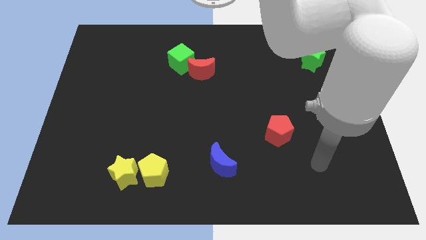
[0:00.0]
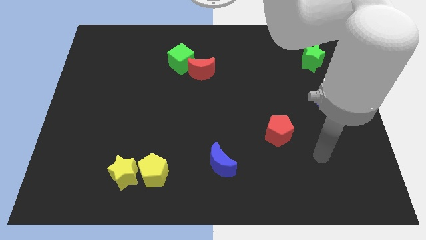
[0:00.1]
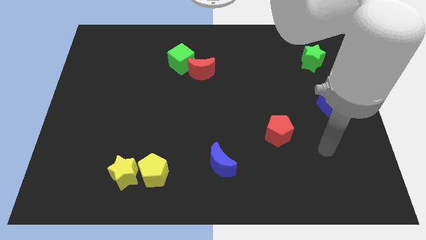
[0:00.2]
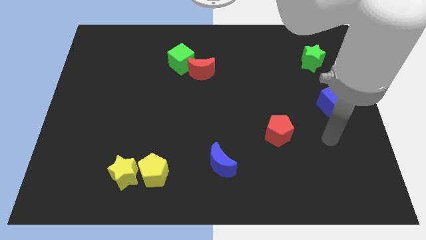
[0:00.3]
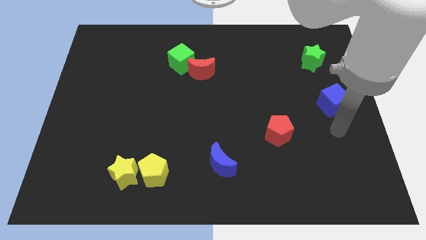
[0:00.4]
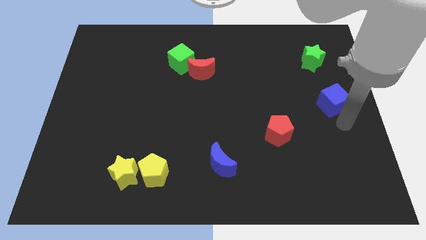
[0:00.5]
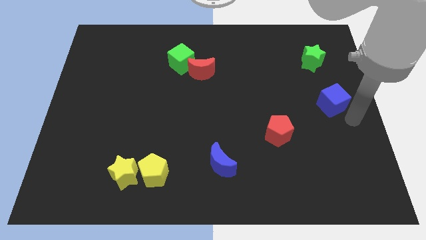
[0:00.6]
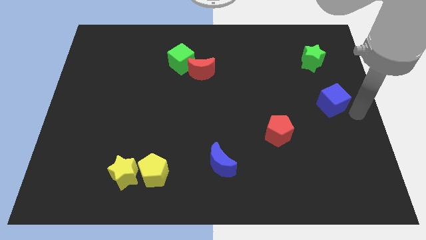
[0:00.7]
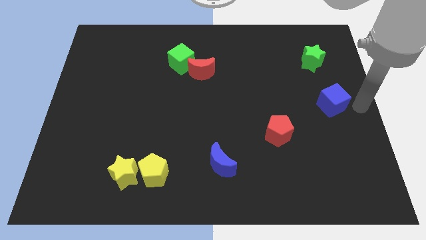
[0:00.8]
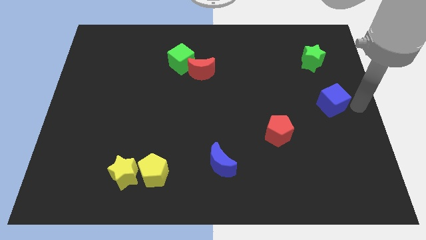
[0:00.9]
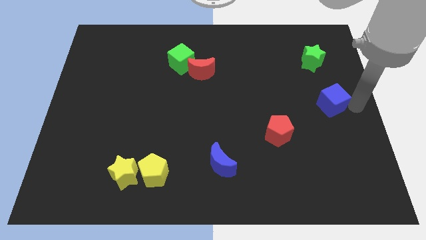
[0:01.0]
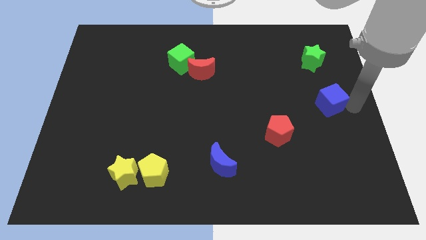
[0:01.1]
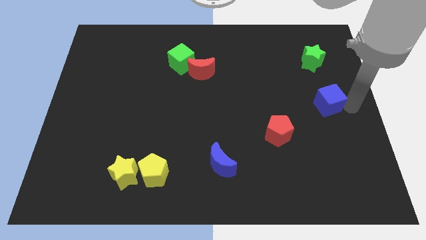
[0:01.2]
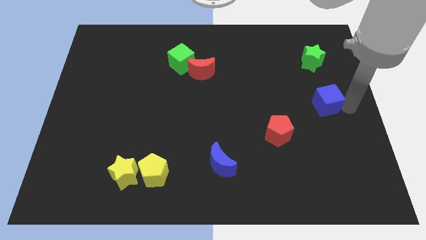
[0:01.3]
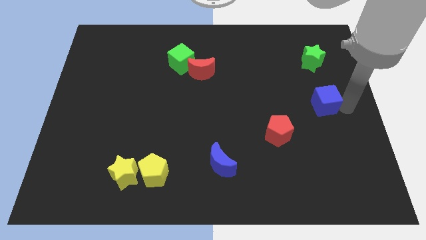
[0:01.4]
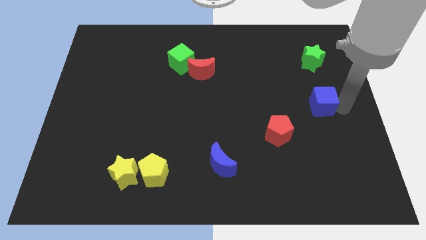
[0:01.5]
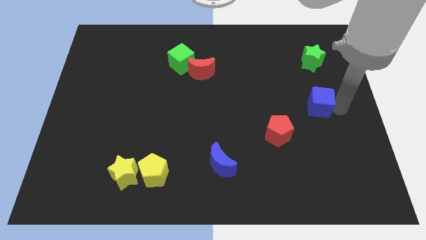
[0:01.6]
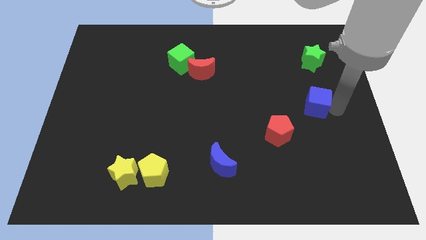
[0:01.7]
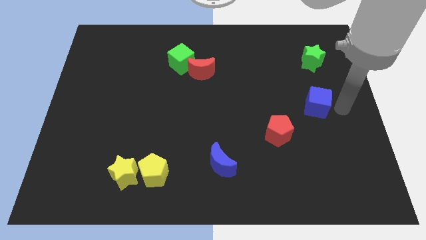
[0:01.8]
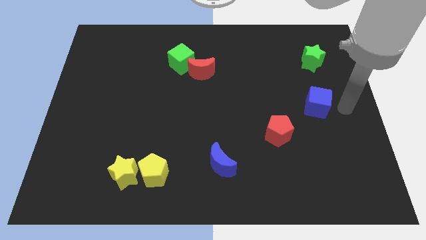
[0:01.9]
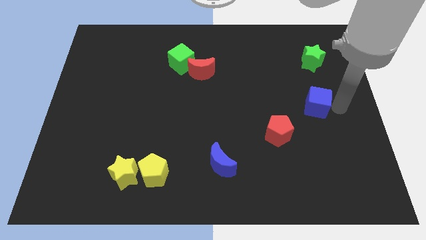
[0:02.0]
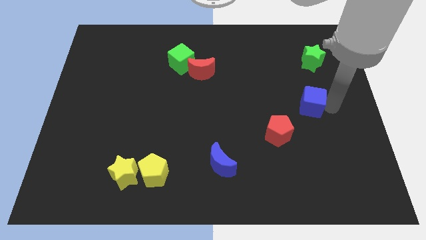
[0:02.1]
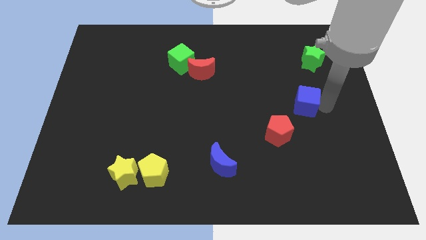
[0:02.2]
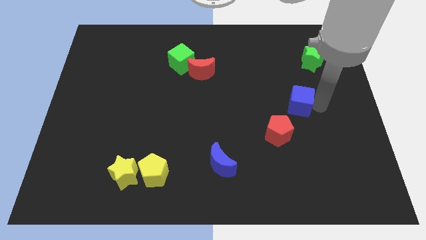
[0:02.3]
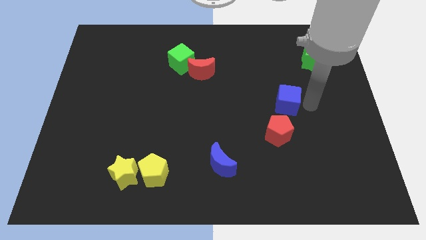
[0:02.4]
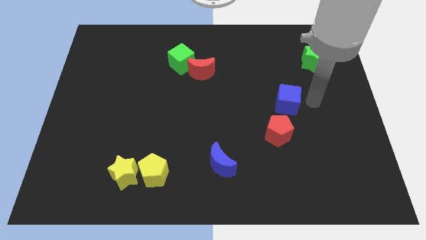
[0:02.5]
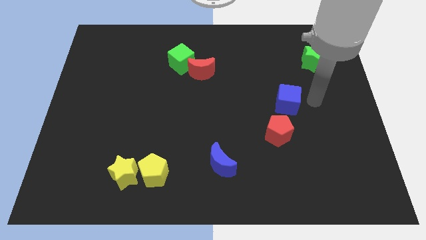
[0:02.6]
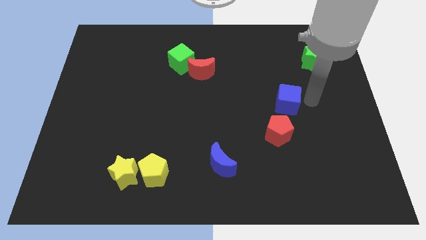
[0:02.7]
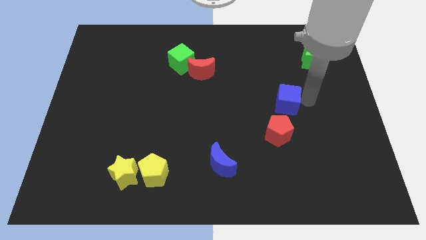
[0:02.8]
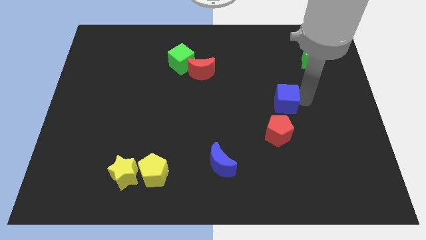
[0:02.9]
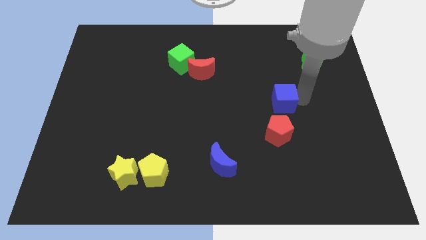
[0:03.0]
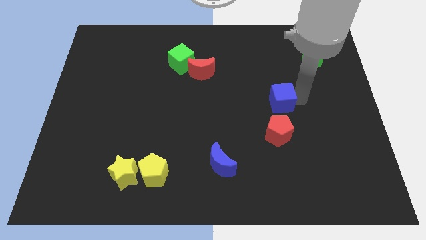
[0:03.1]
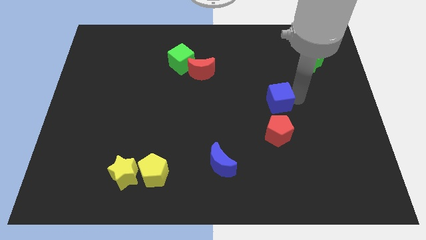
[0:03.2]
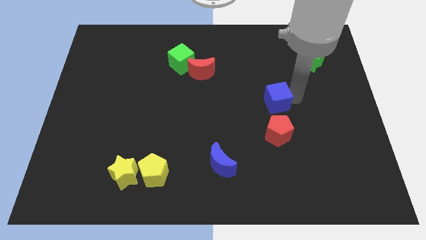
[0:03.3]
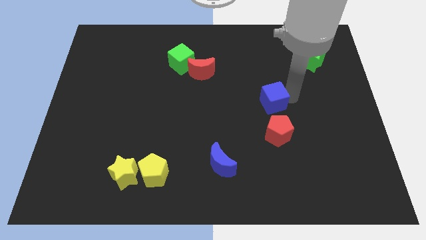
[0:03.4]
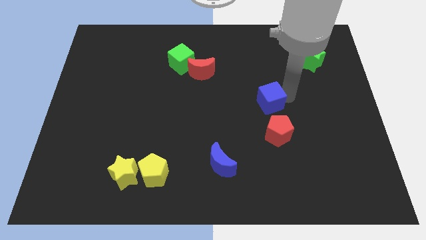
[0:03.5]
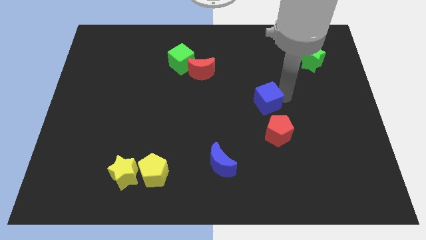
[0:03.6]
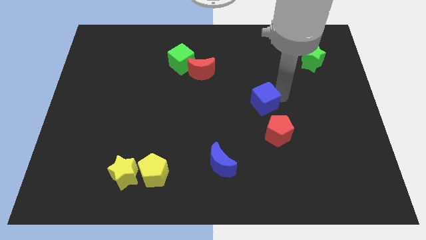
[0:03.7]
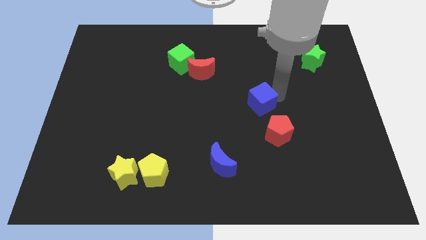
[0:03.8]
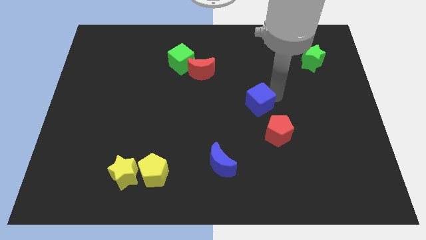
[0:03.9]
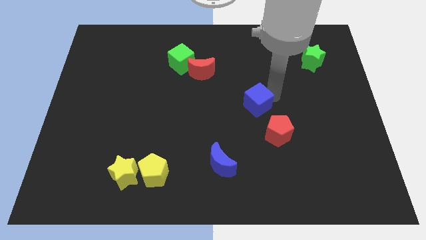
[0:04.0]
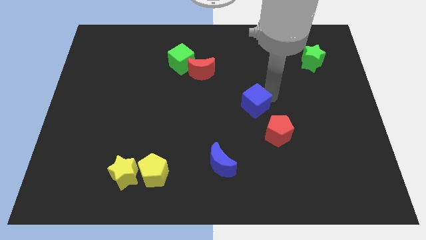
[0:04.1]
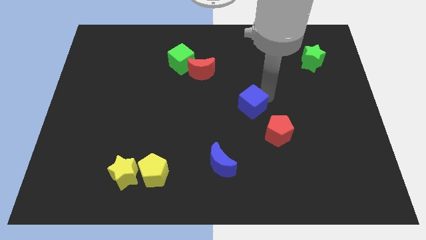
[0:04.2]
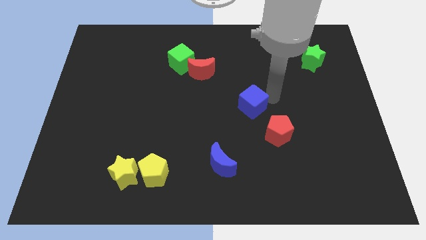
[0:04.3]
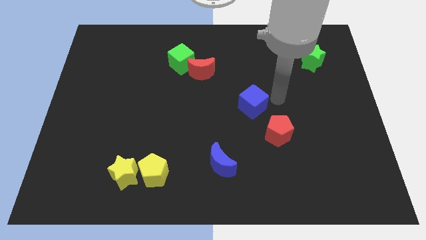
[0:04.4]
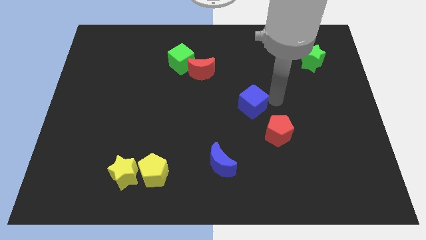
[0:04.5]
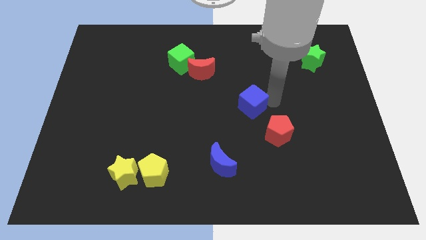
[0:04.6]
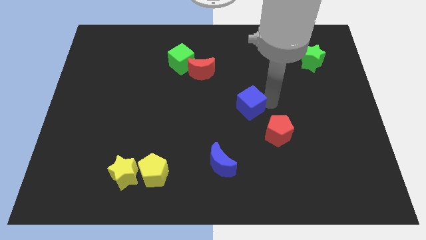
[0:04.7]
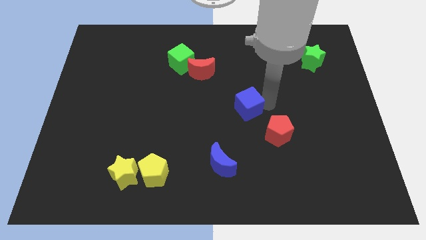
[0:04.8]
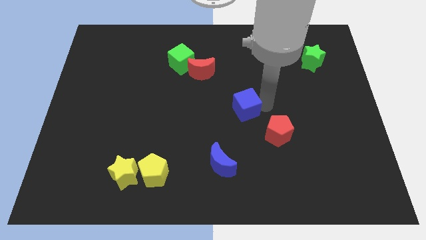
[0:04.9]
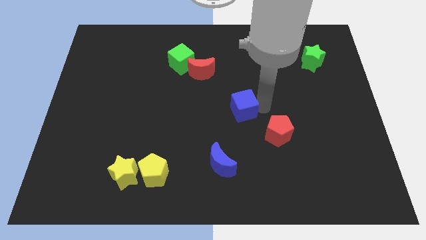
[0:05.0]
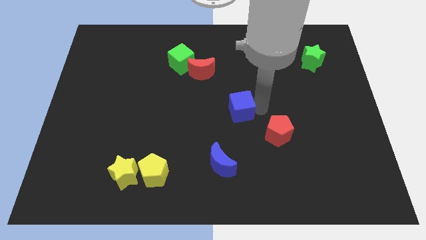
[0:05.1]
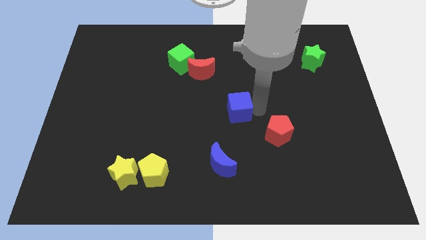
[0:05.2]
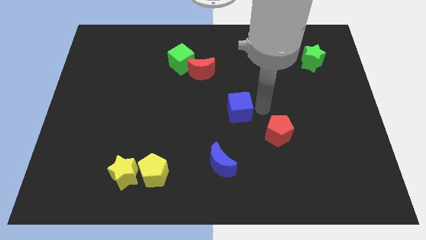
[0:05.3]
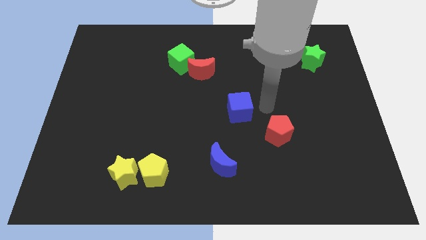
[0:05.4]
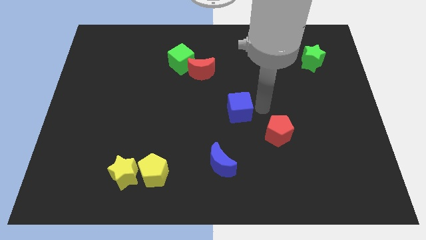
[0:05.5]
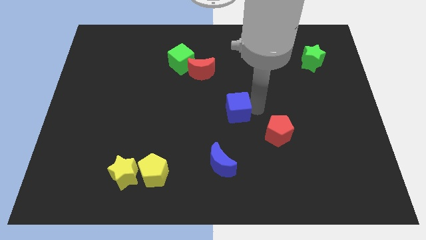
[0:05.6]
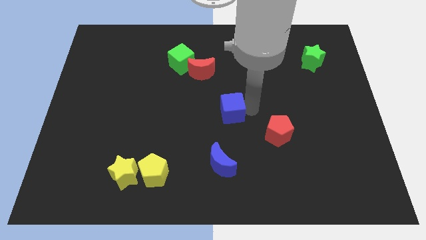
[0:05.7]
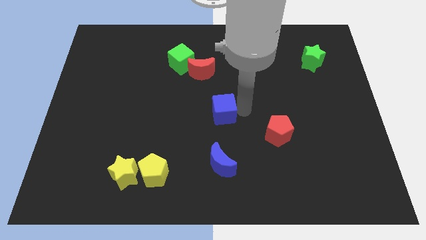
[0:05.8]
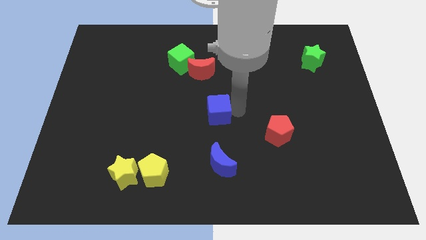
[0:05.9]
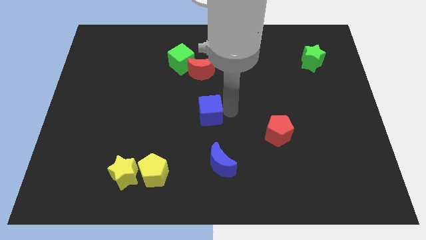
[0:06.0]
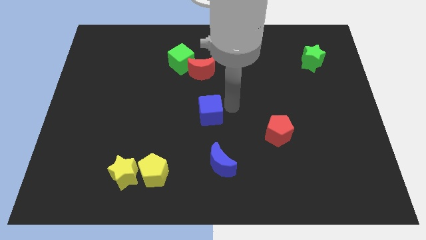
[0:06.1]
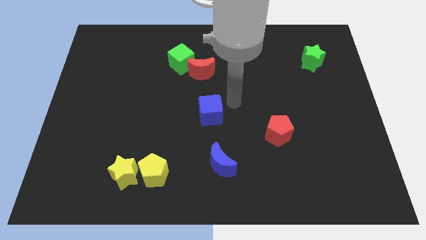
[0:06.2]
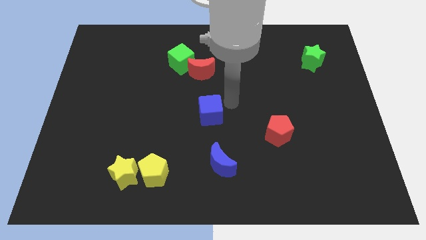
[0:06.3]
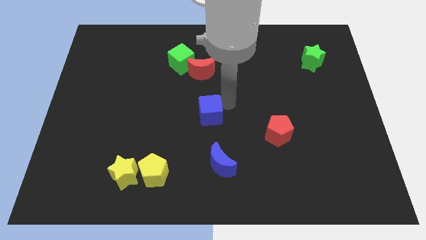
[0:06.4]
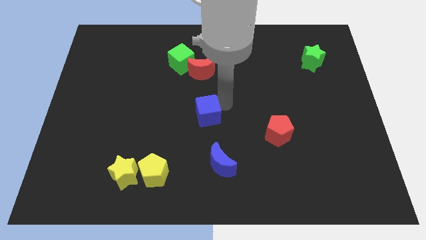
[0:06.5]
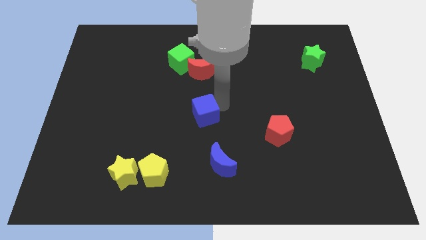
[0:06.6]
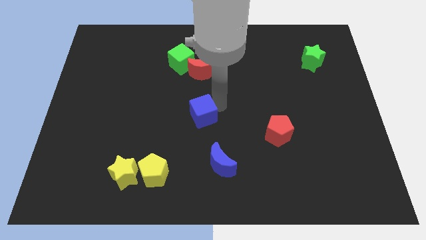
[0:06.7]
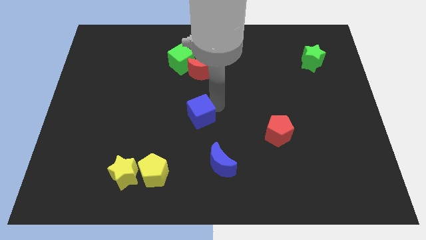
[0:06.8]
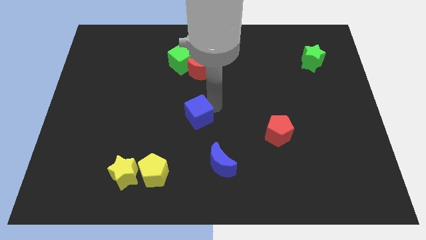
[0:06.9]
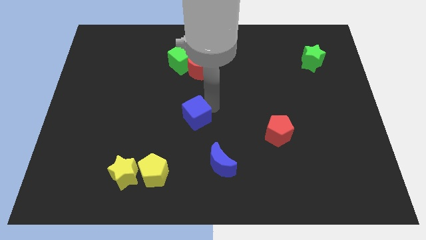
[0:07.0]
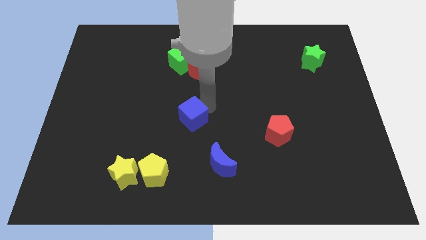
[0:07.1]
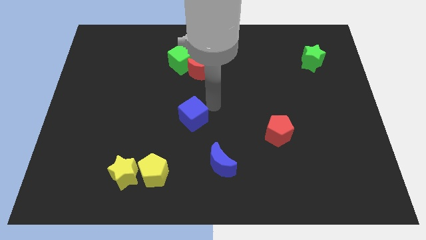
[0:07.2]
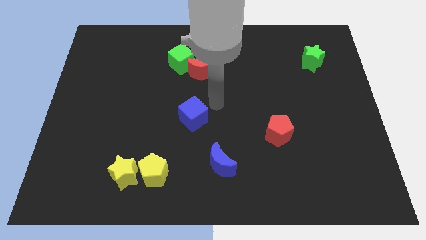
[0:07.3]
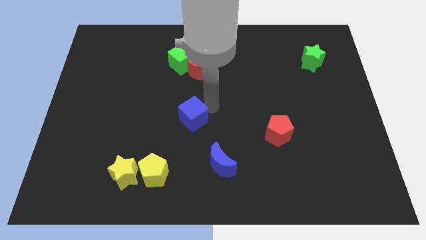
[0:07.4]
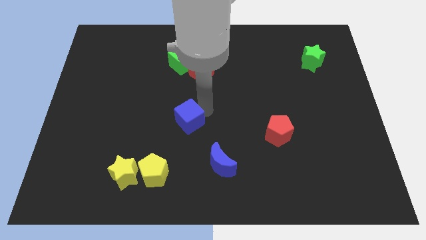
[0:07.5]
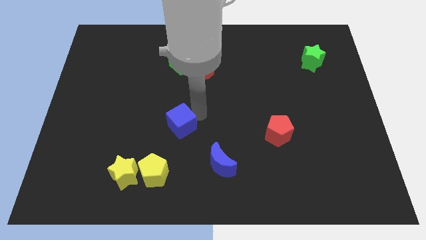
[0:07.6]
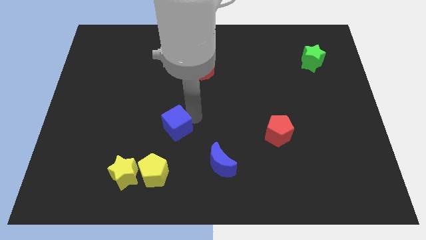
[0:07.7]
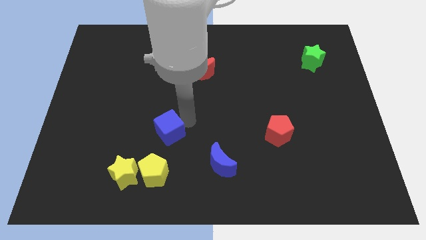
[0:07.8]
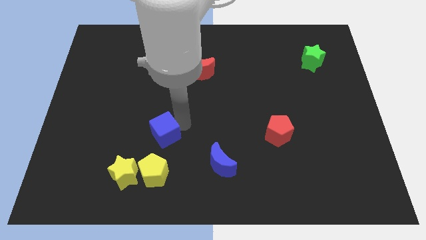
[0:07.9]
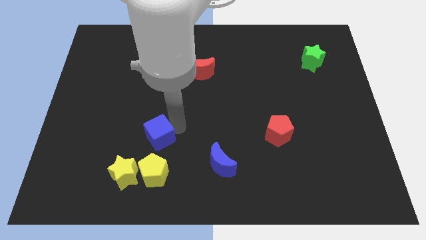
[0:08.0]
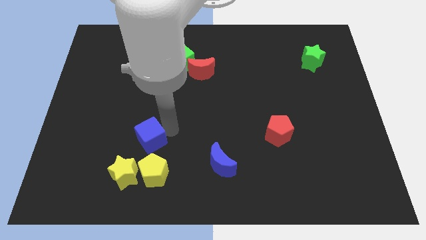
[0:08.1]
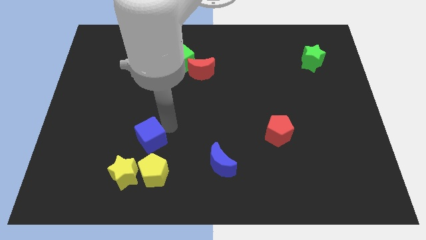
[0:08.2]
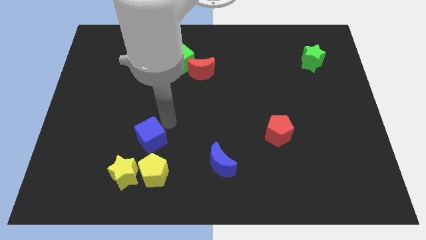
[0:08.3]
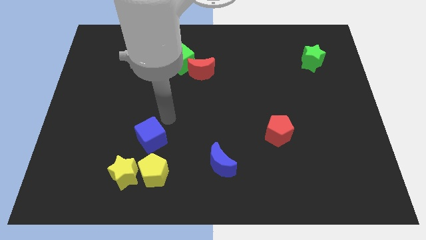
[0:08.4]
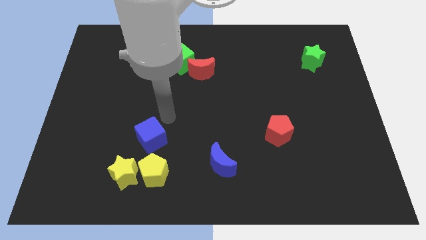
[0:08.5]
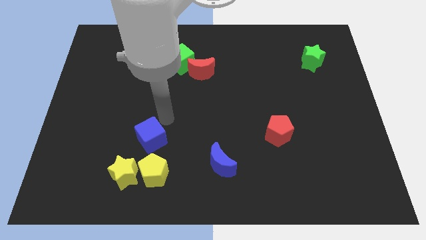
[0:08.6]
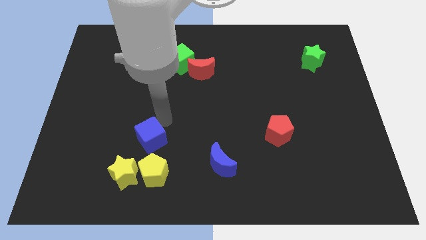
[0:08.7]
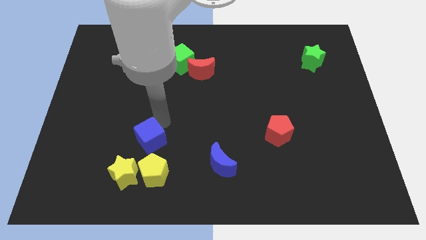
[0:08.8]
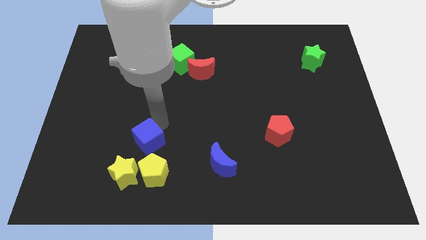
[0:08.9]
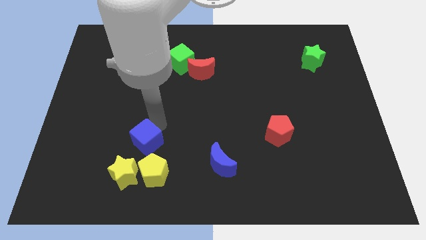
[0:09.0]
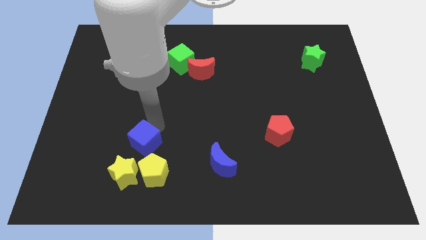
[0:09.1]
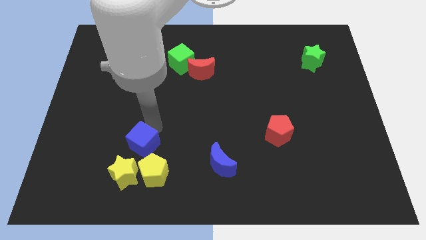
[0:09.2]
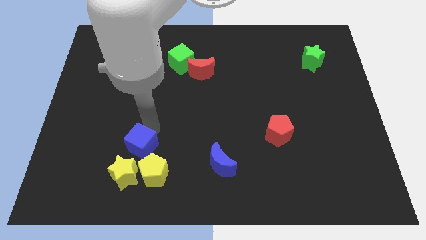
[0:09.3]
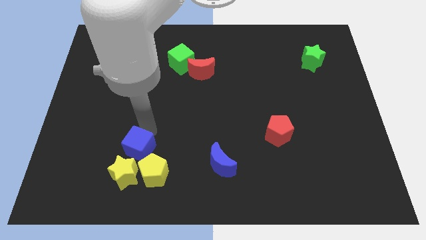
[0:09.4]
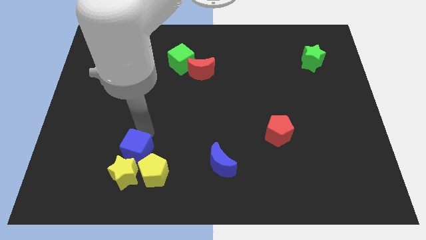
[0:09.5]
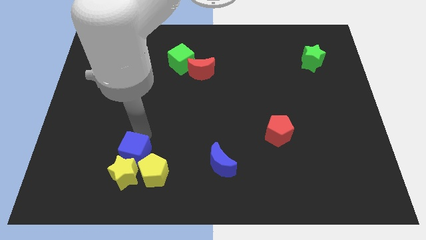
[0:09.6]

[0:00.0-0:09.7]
move the blue cube towards the yellow star
